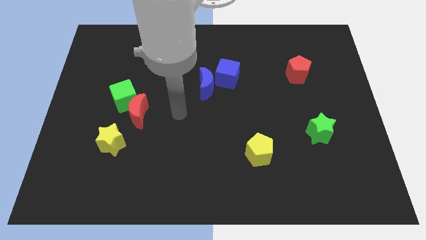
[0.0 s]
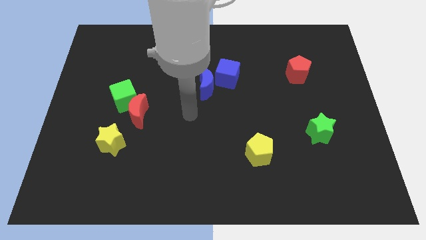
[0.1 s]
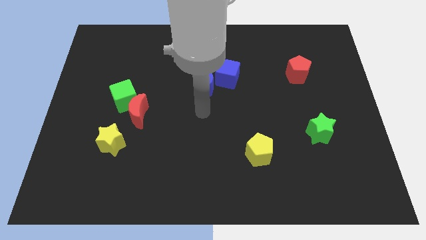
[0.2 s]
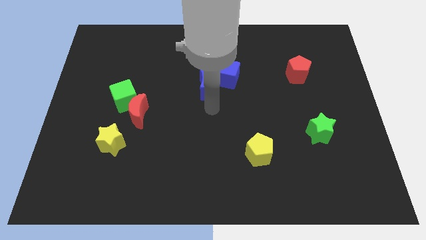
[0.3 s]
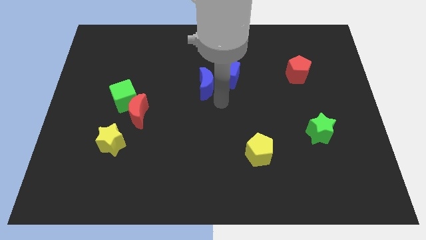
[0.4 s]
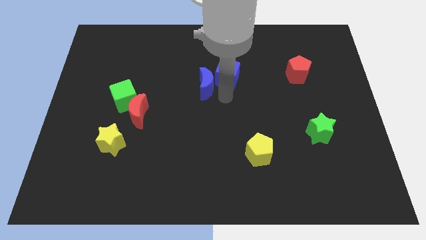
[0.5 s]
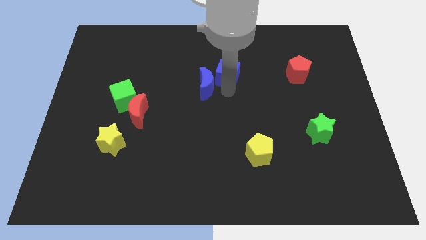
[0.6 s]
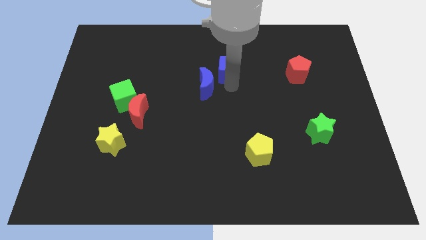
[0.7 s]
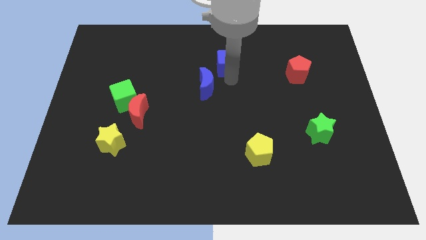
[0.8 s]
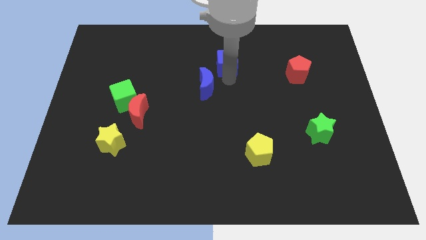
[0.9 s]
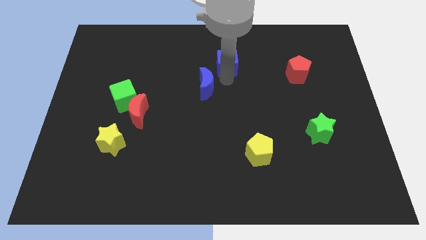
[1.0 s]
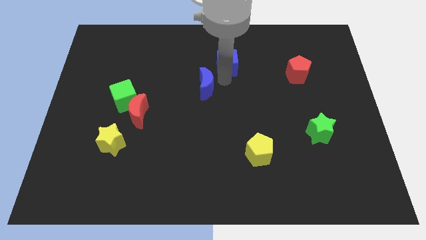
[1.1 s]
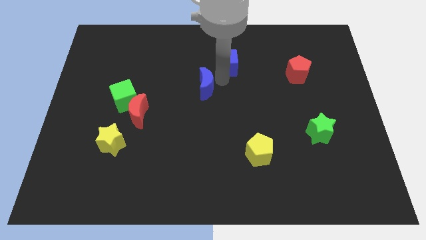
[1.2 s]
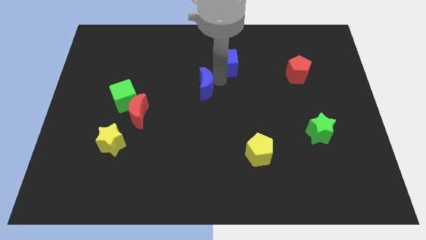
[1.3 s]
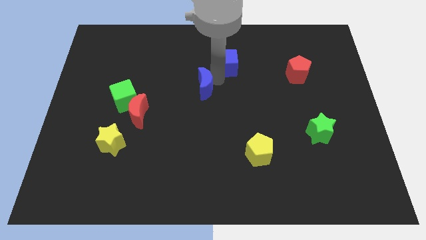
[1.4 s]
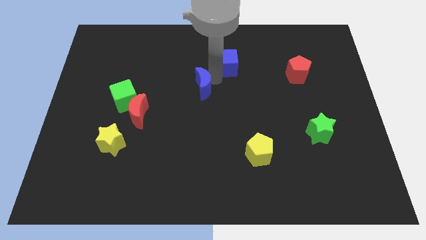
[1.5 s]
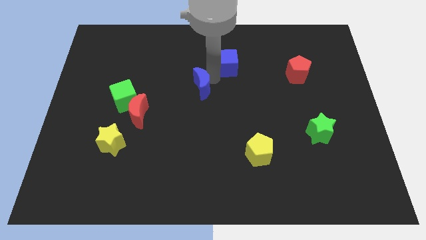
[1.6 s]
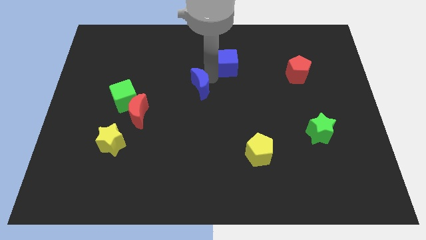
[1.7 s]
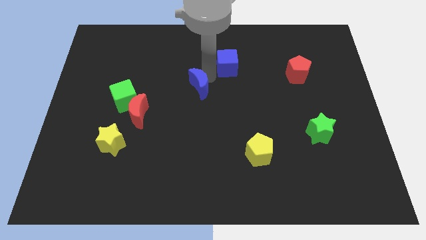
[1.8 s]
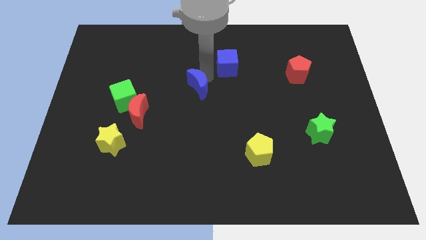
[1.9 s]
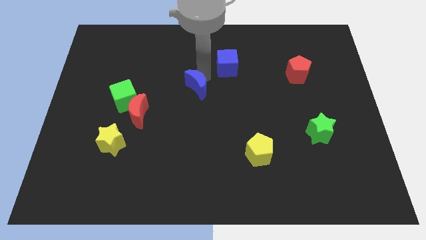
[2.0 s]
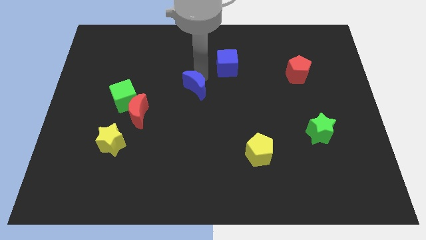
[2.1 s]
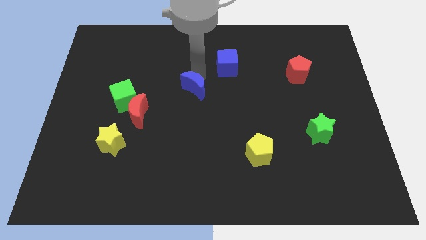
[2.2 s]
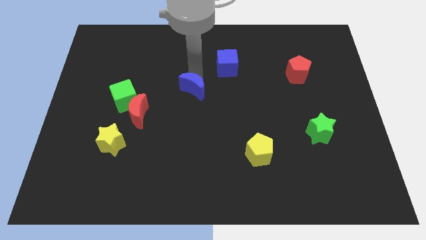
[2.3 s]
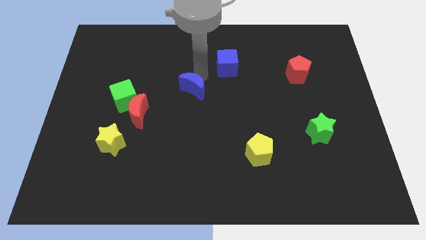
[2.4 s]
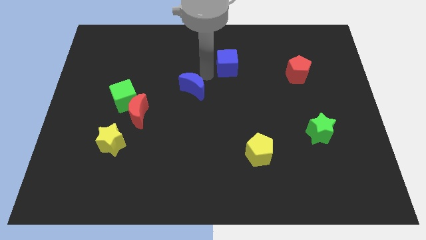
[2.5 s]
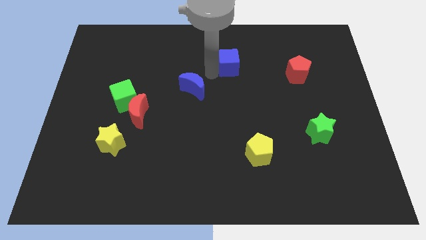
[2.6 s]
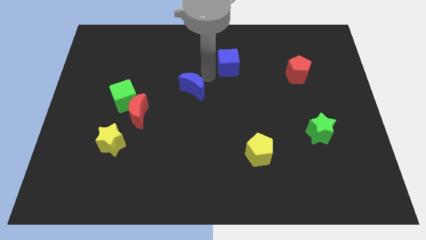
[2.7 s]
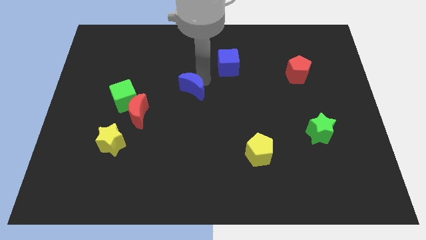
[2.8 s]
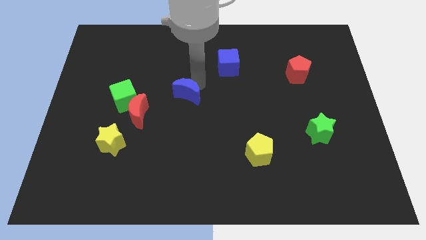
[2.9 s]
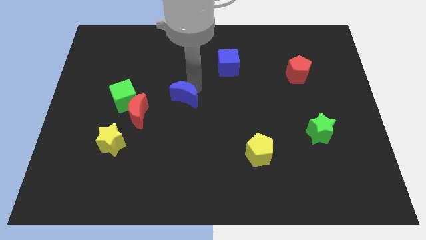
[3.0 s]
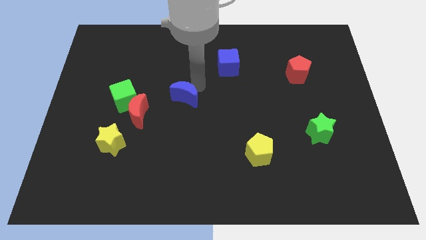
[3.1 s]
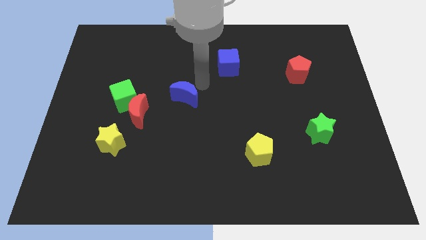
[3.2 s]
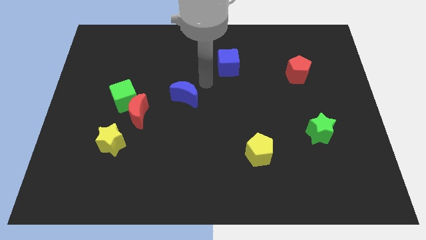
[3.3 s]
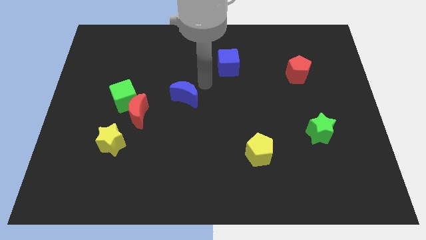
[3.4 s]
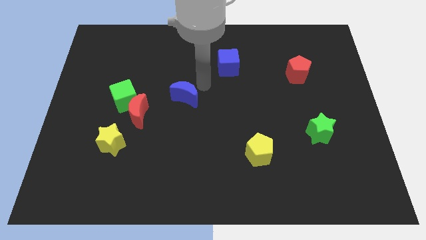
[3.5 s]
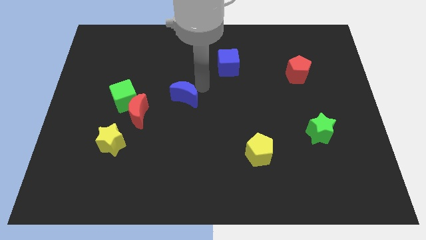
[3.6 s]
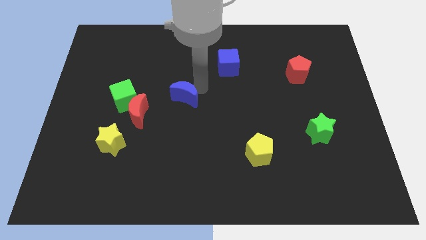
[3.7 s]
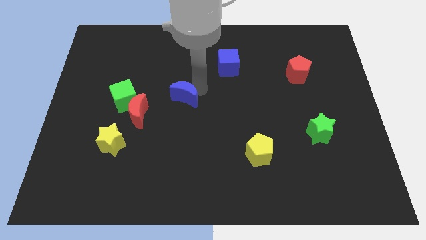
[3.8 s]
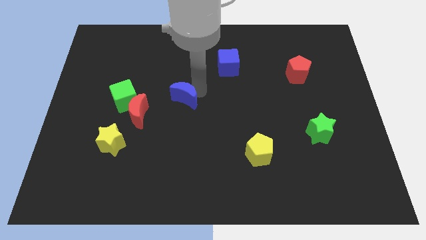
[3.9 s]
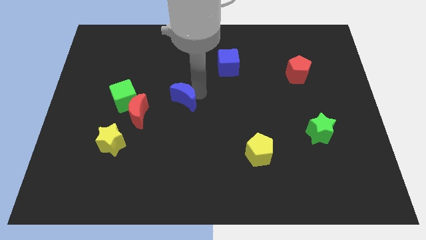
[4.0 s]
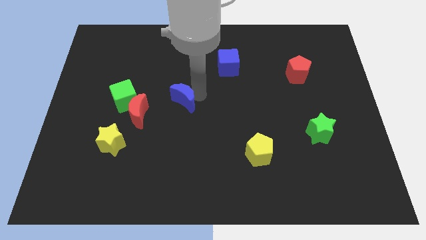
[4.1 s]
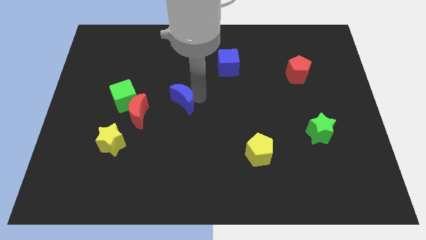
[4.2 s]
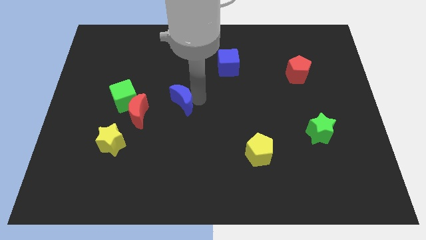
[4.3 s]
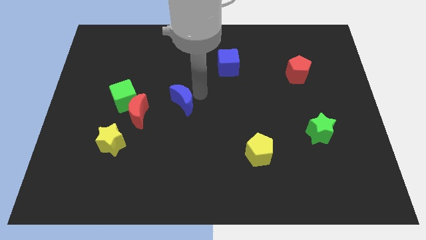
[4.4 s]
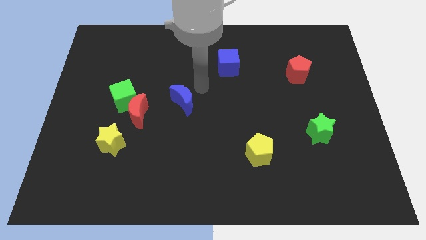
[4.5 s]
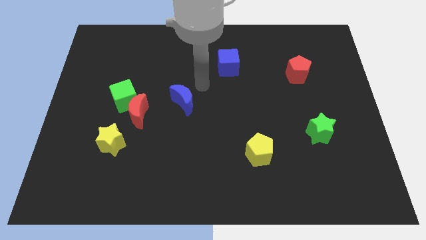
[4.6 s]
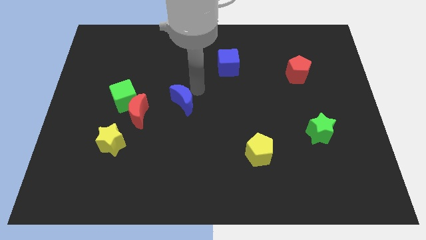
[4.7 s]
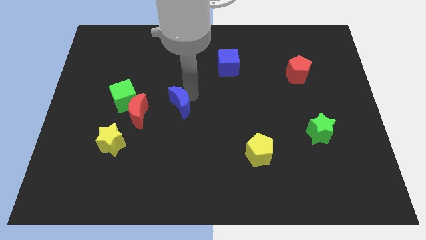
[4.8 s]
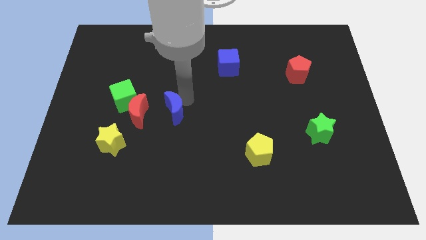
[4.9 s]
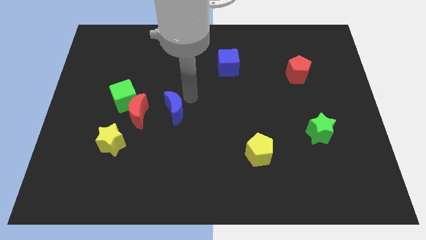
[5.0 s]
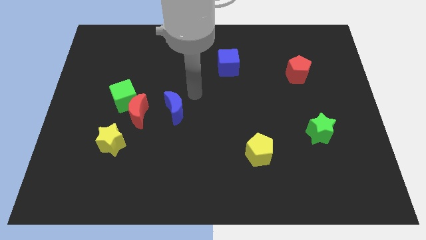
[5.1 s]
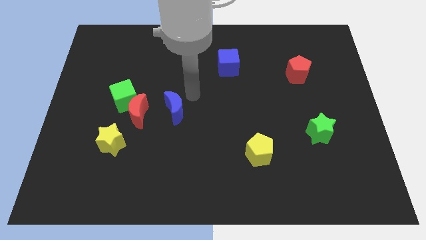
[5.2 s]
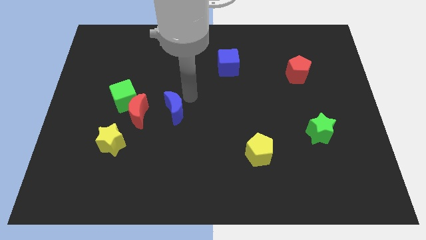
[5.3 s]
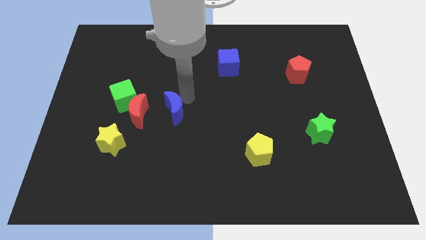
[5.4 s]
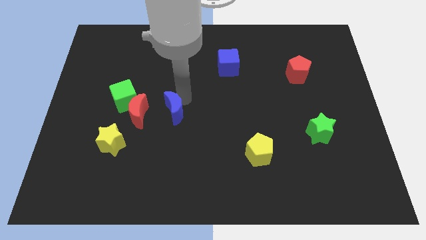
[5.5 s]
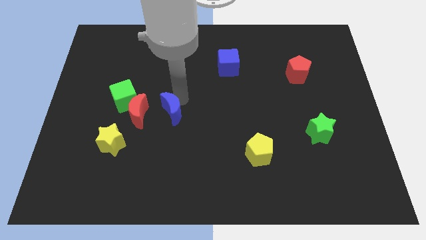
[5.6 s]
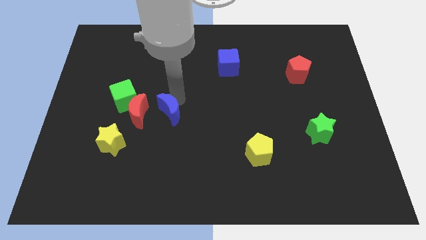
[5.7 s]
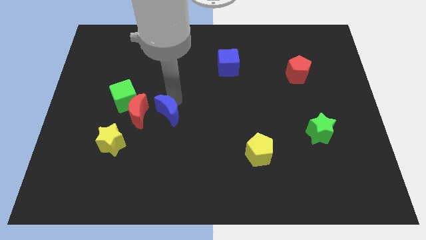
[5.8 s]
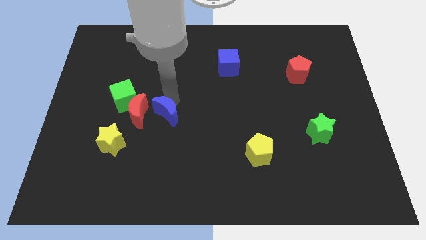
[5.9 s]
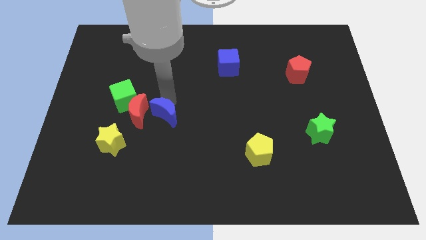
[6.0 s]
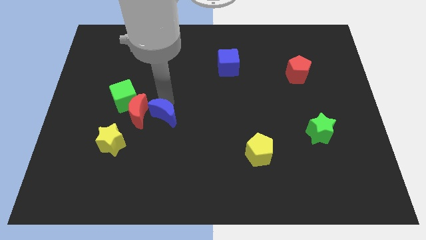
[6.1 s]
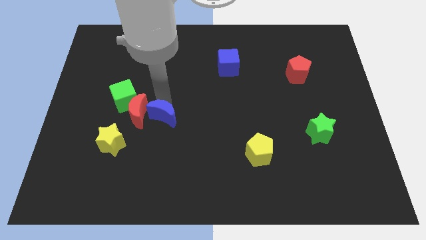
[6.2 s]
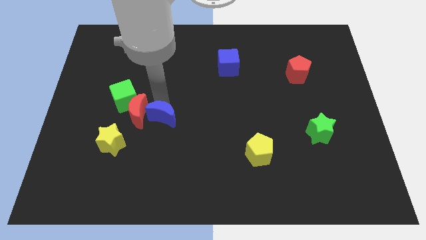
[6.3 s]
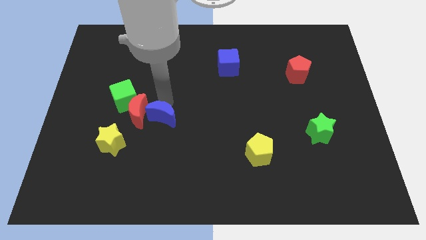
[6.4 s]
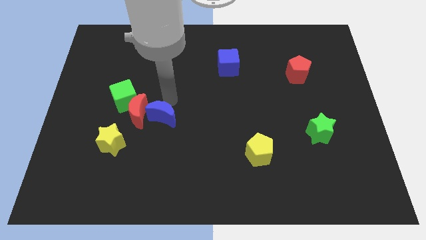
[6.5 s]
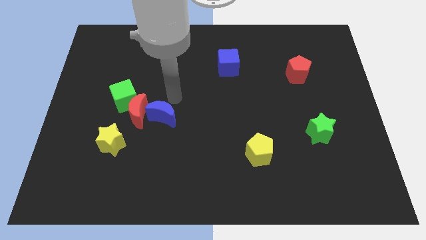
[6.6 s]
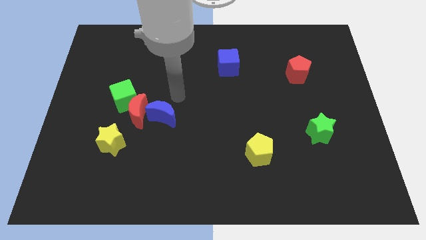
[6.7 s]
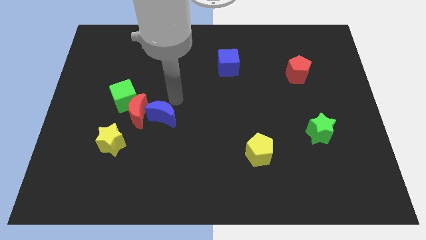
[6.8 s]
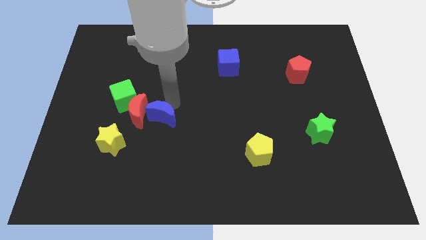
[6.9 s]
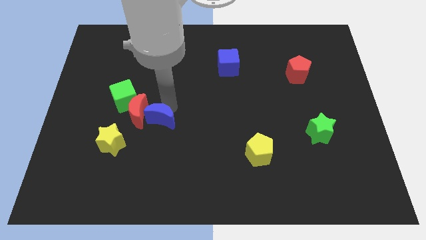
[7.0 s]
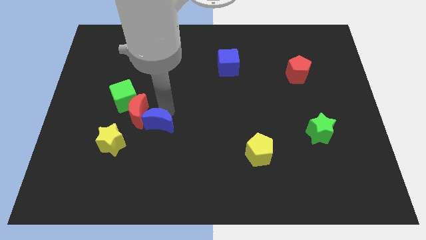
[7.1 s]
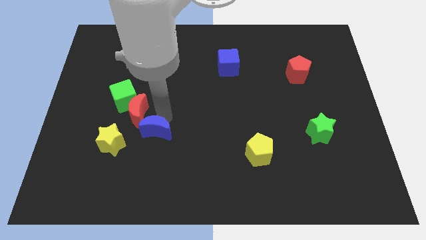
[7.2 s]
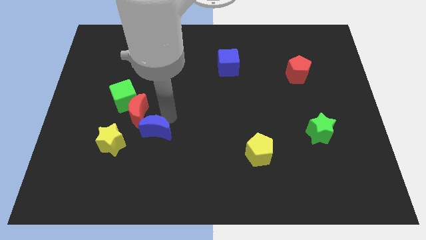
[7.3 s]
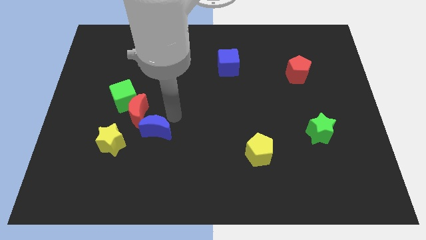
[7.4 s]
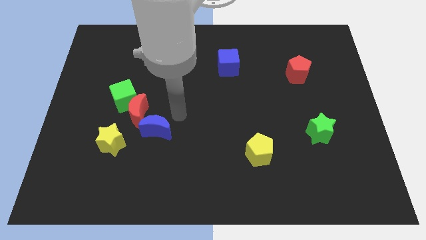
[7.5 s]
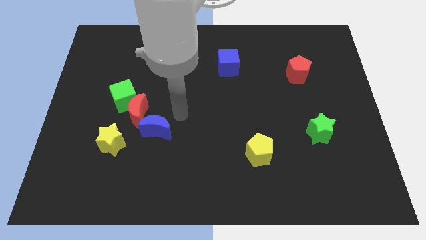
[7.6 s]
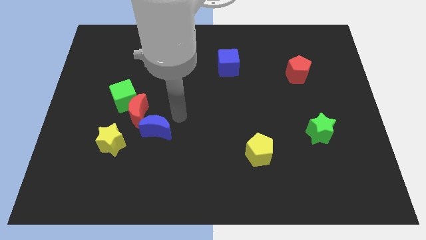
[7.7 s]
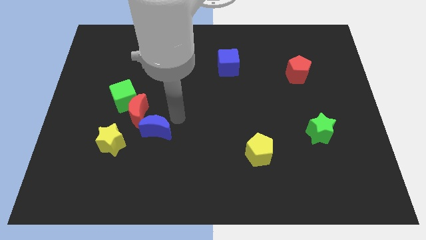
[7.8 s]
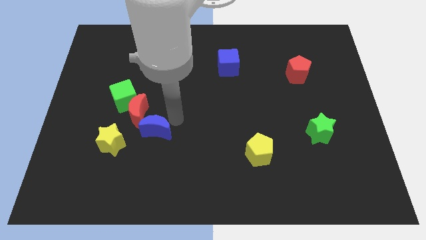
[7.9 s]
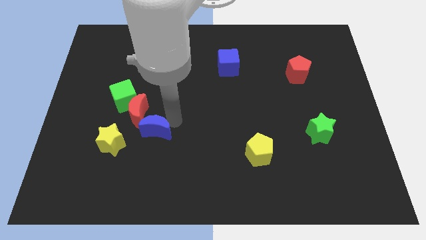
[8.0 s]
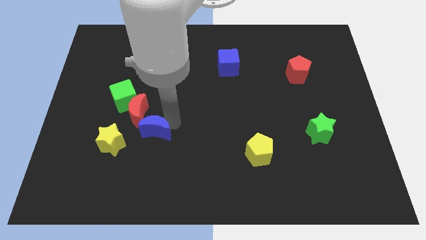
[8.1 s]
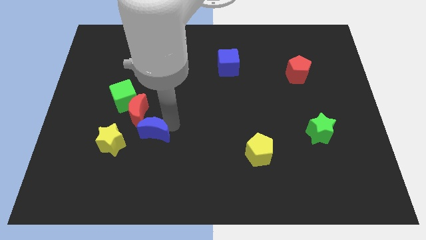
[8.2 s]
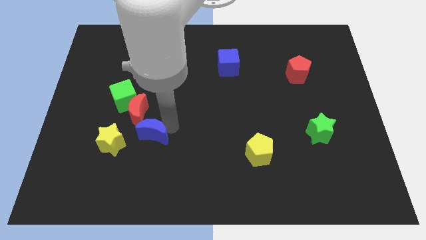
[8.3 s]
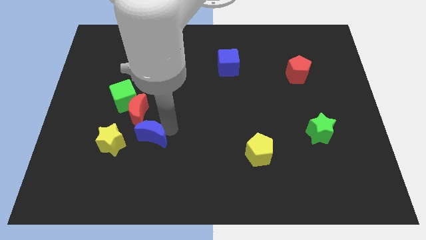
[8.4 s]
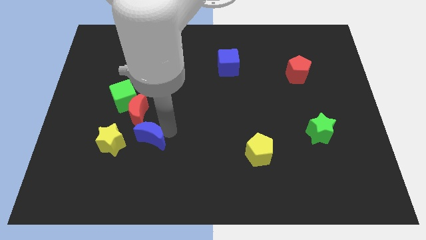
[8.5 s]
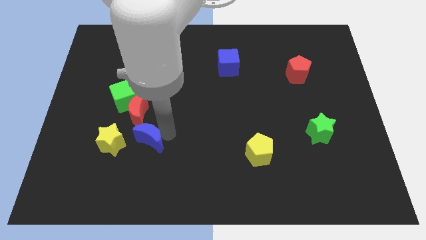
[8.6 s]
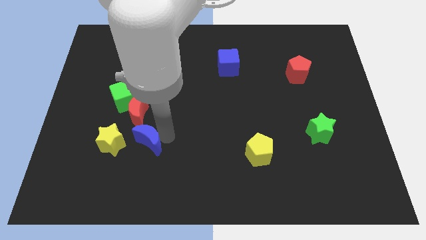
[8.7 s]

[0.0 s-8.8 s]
slide the blue moon down and then to the left
